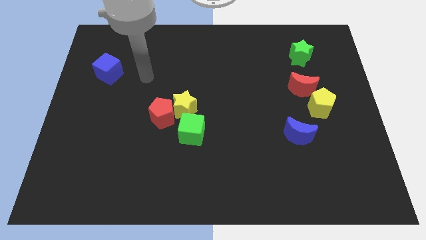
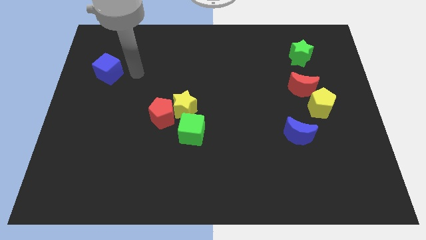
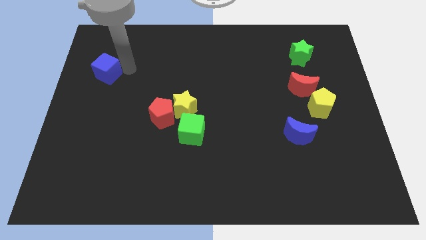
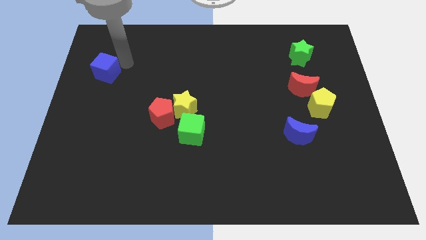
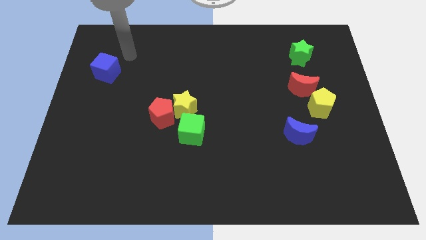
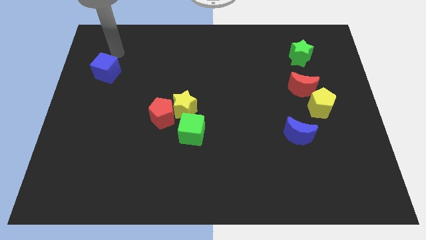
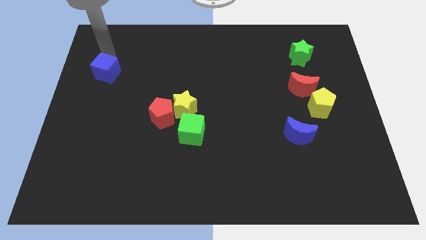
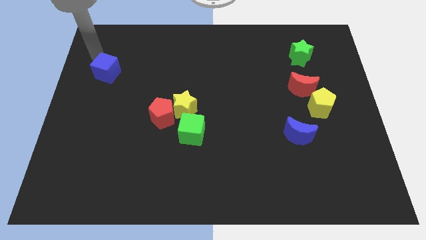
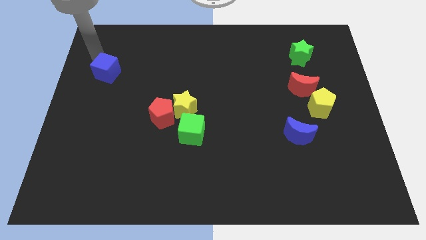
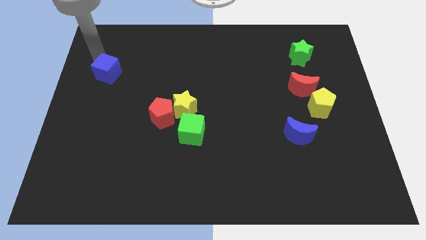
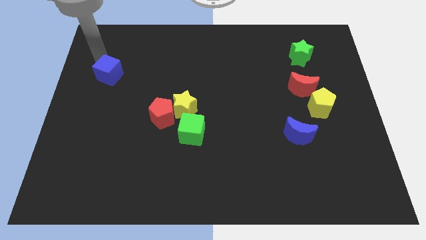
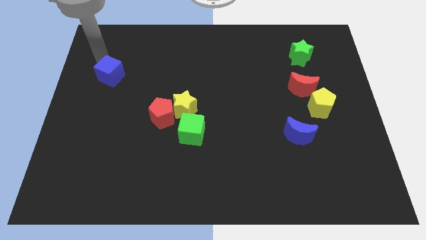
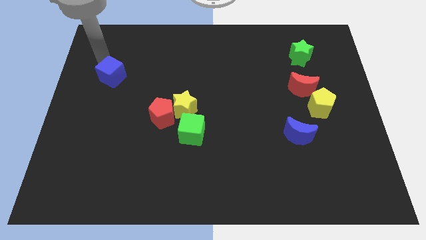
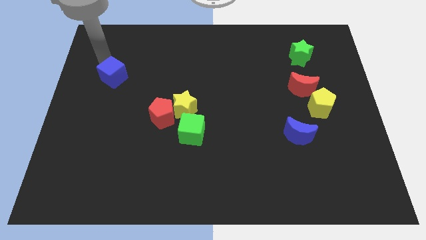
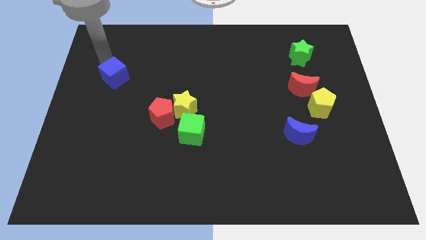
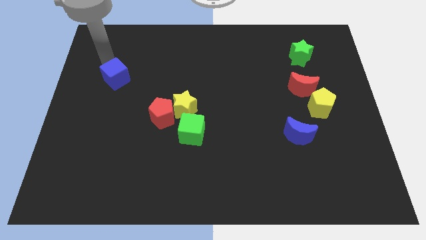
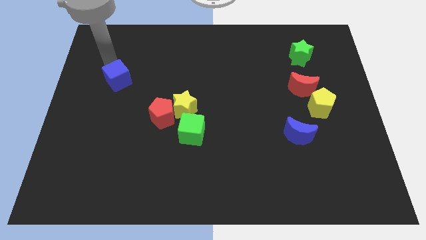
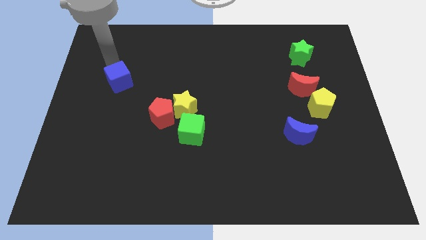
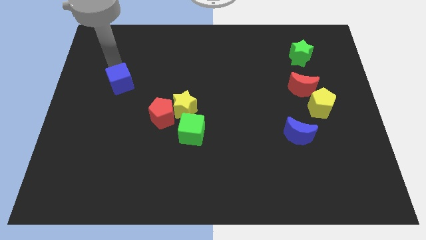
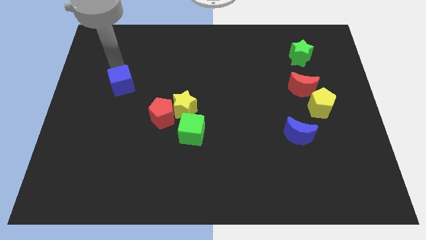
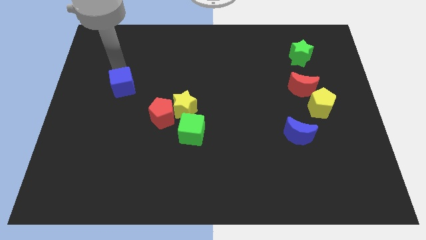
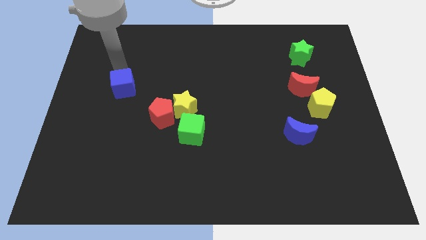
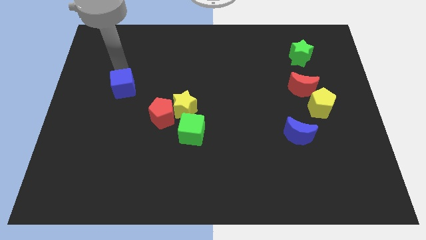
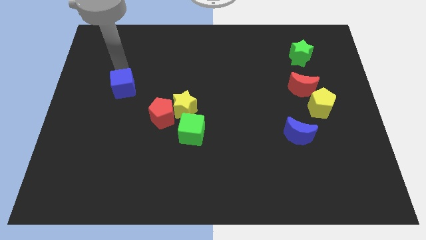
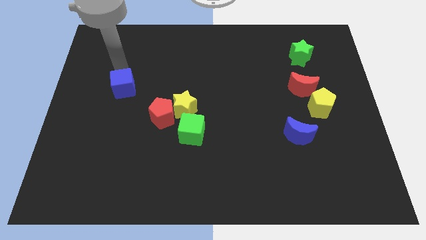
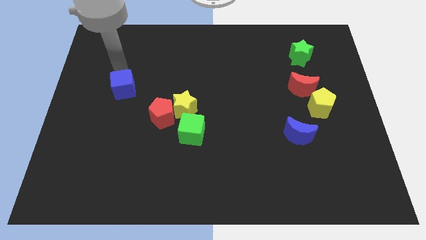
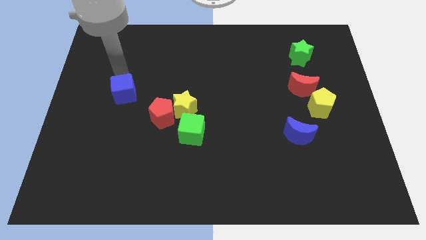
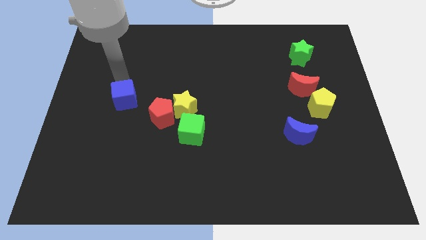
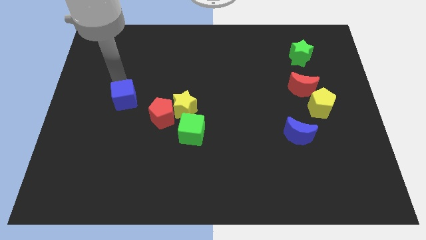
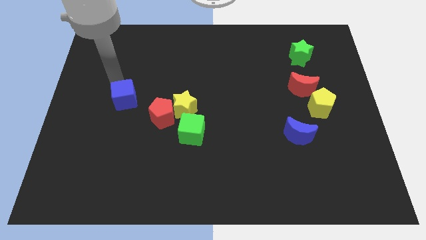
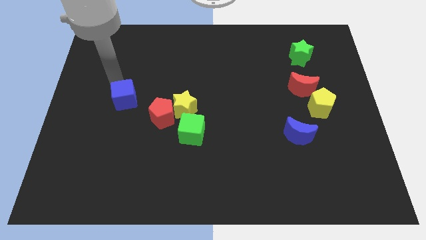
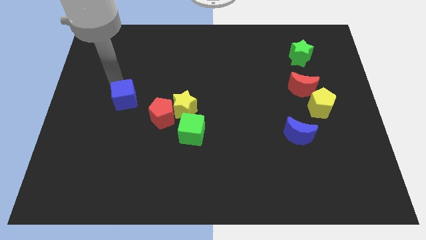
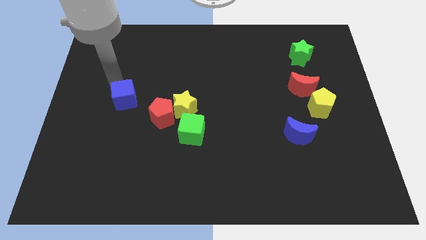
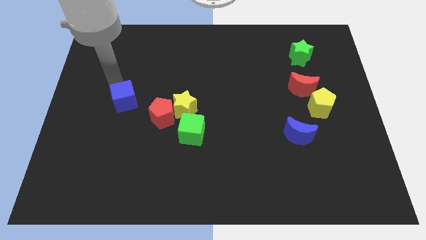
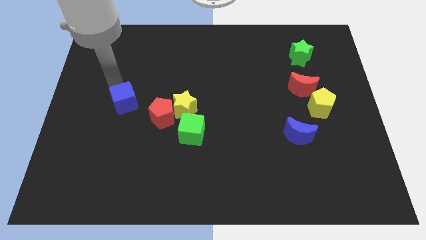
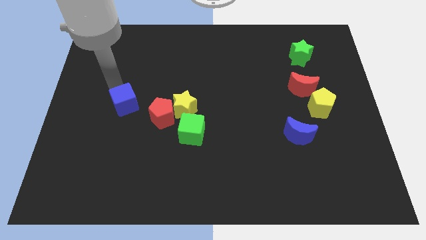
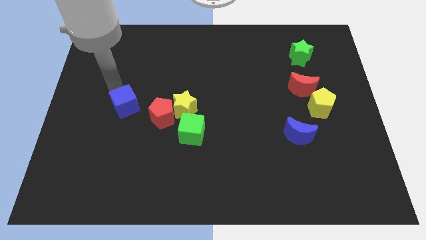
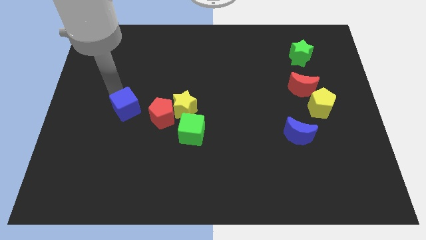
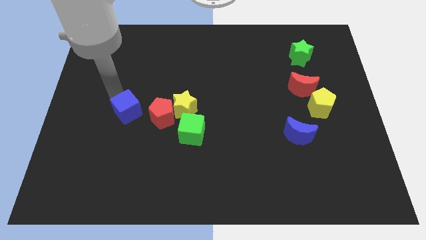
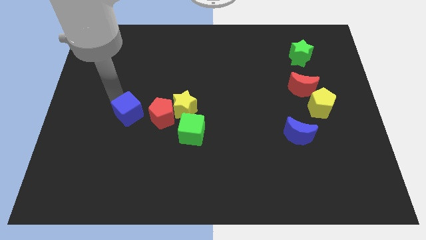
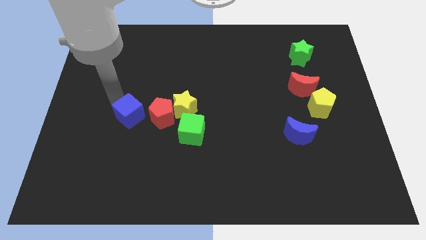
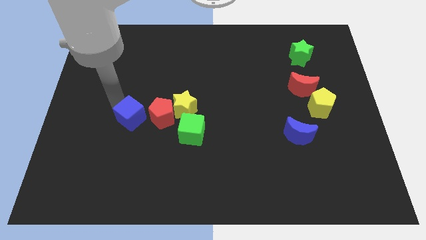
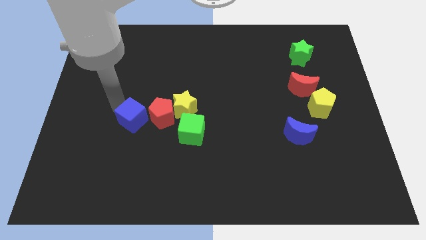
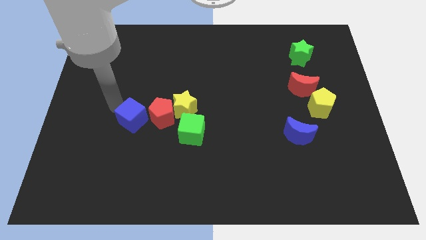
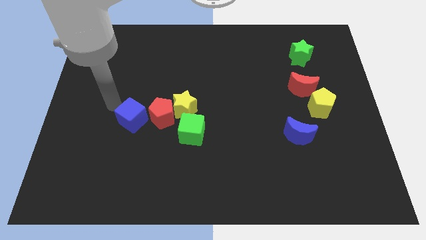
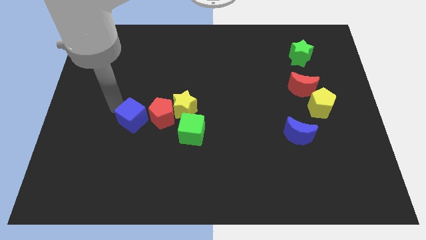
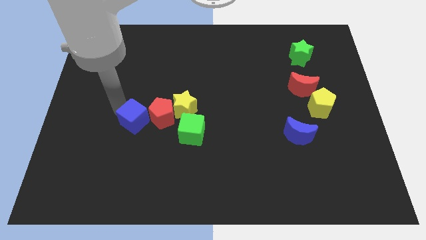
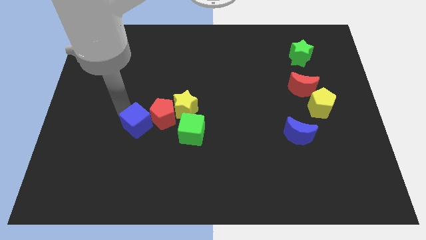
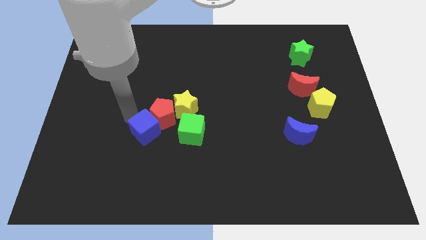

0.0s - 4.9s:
move the blue cube down and then right

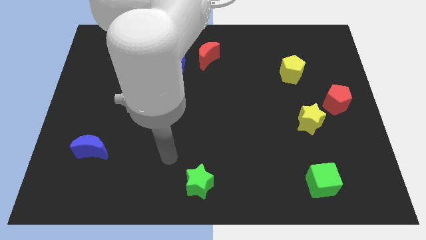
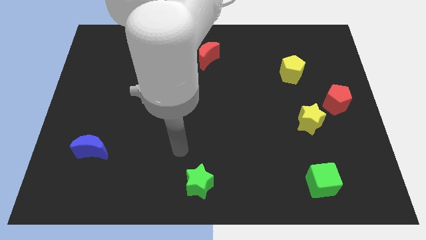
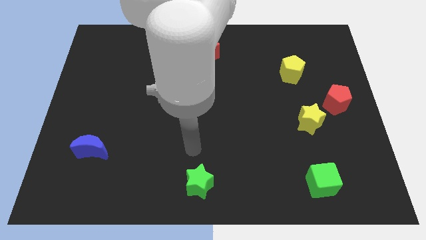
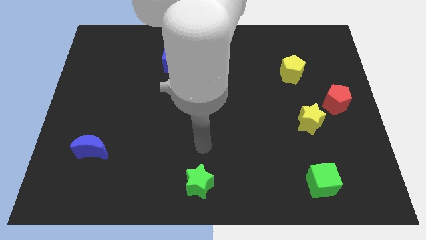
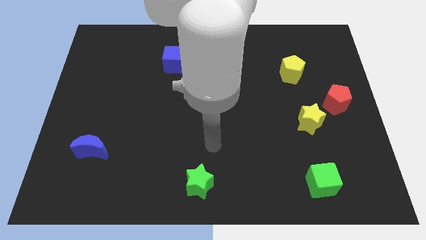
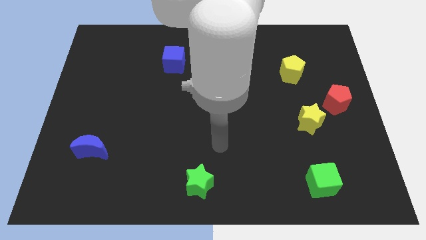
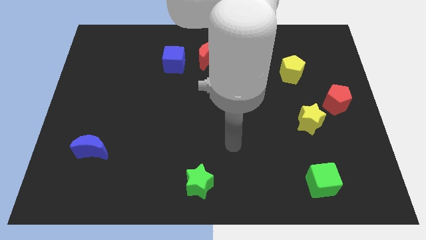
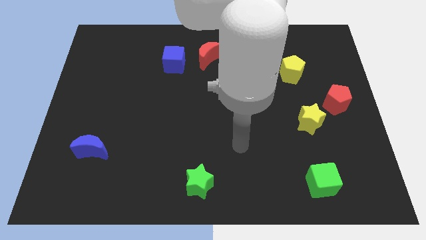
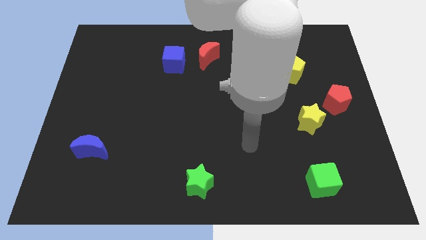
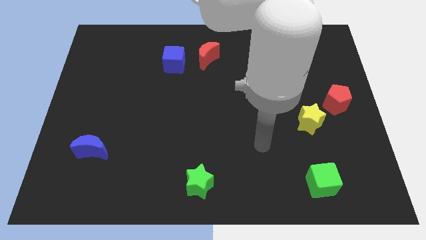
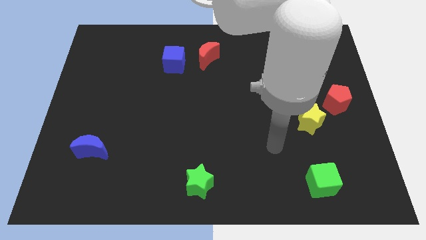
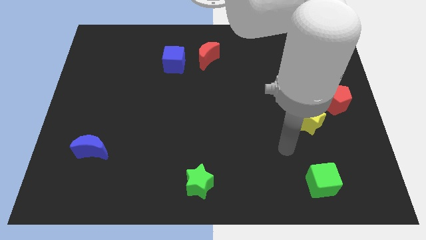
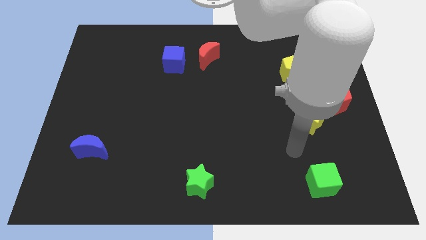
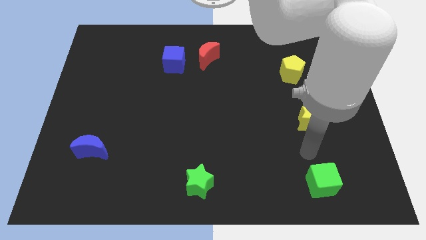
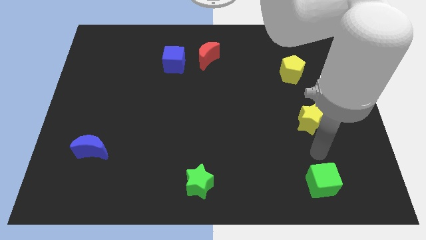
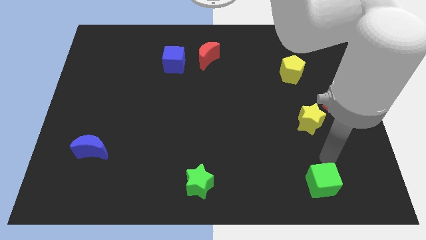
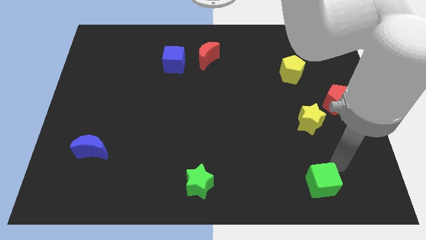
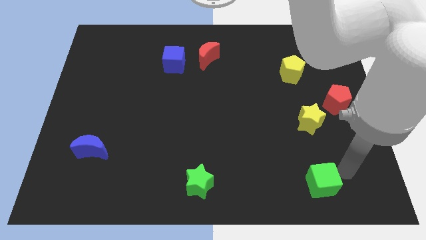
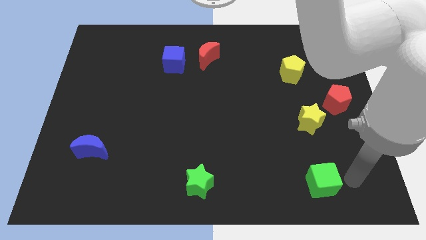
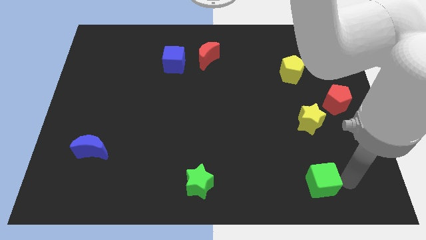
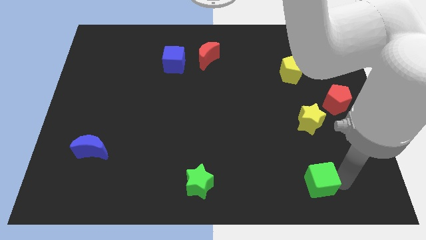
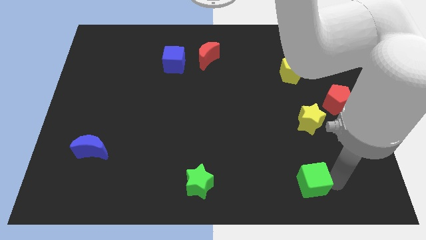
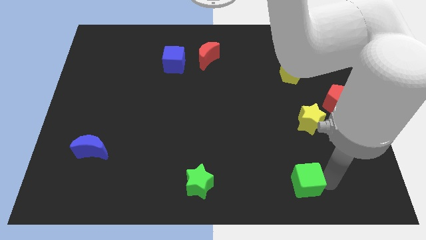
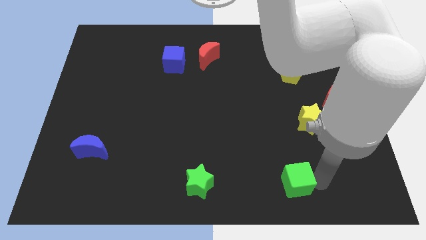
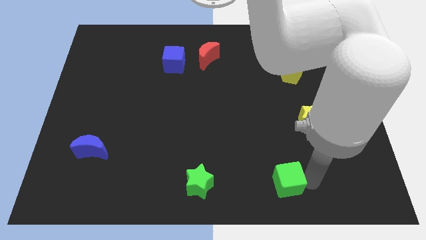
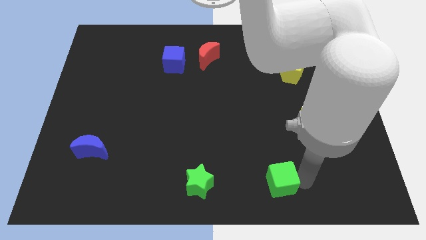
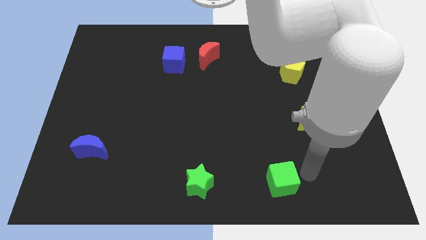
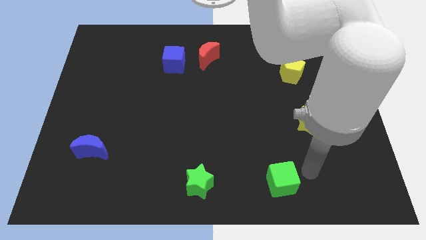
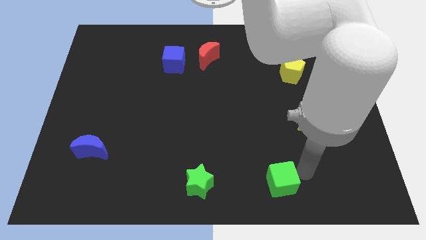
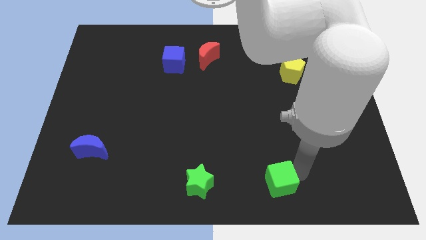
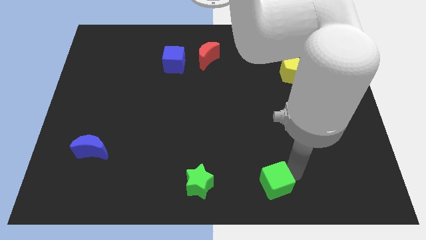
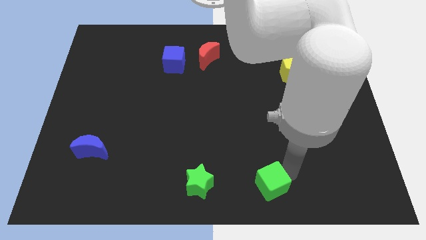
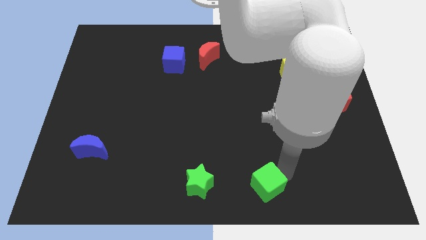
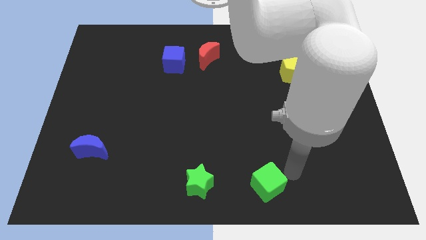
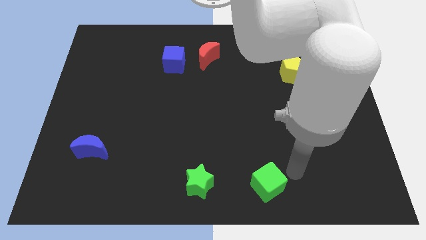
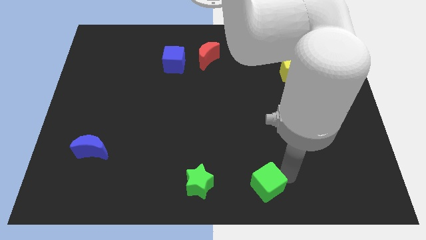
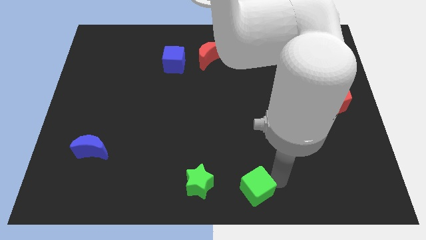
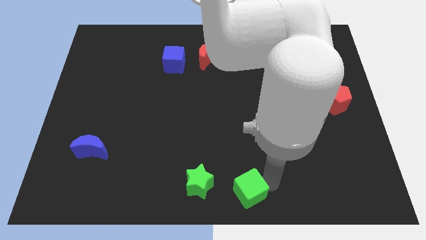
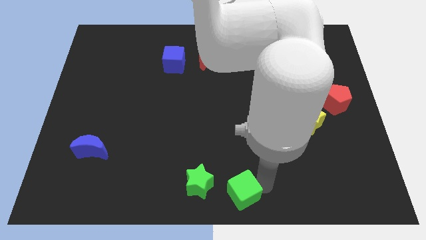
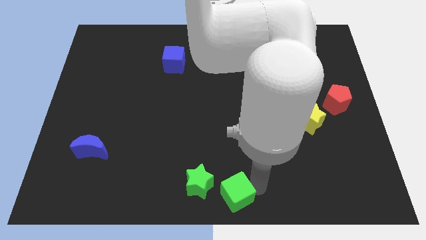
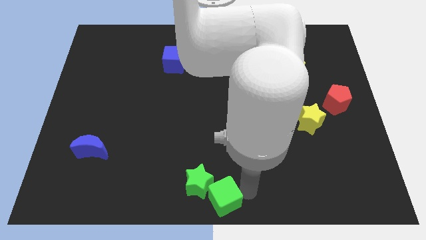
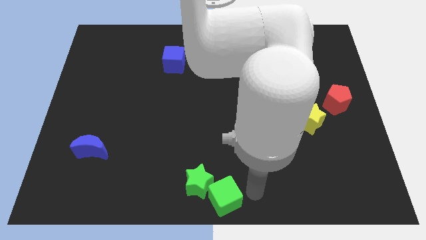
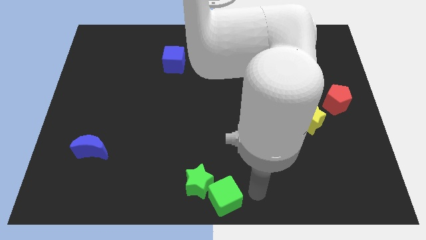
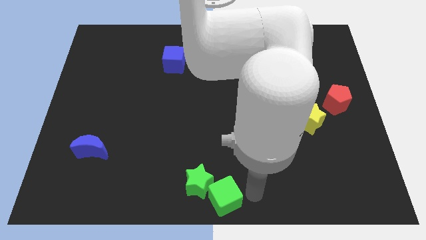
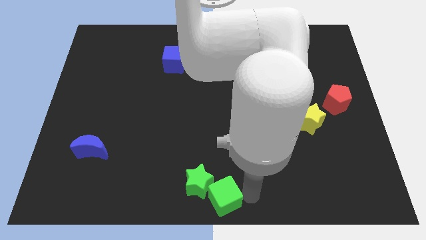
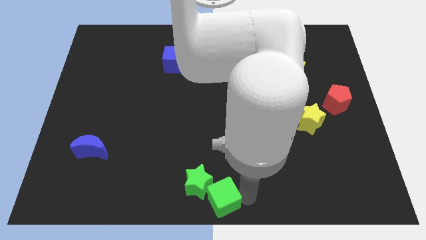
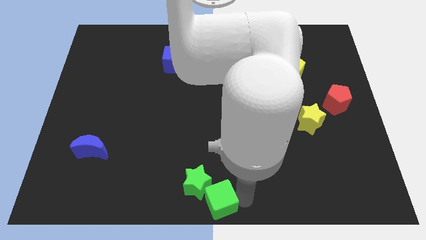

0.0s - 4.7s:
move the green cube to the left
